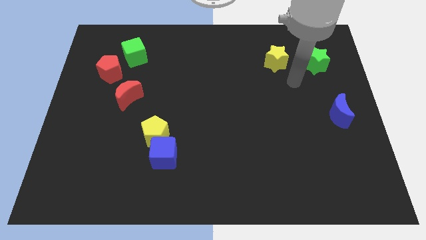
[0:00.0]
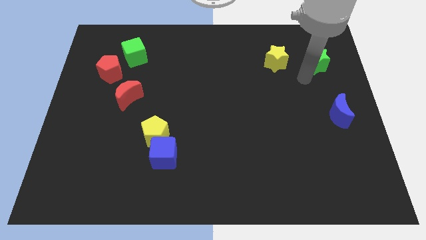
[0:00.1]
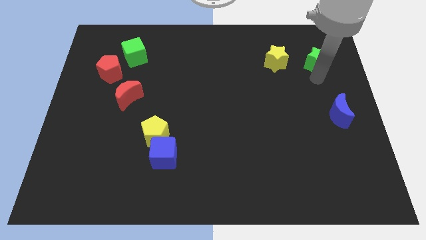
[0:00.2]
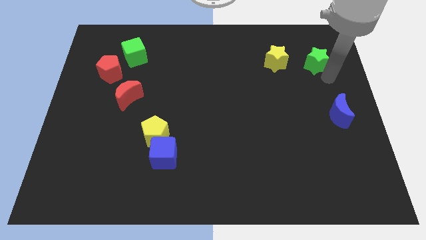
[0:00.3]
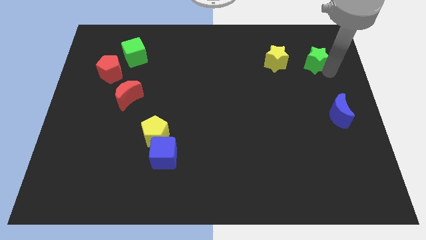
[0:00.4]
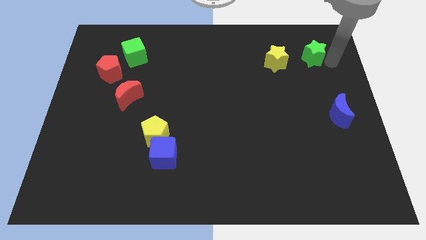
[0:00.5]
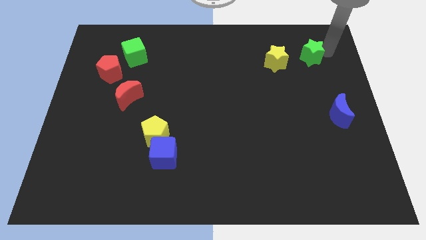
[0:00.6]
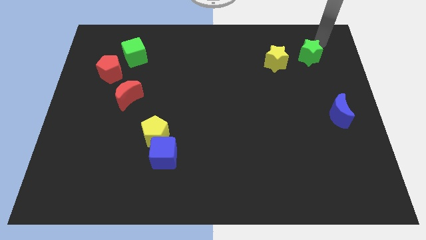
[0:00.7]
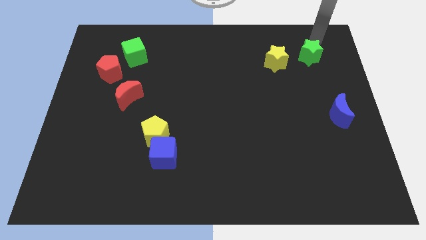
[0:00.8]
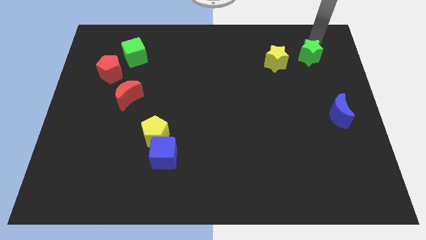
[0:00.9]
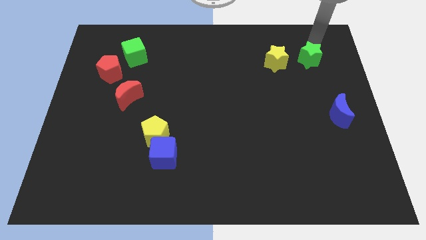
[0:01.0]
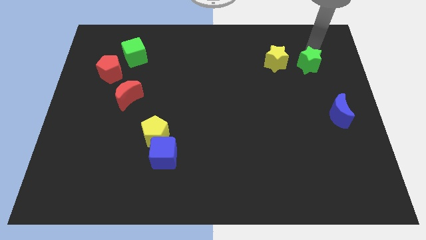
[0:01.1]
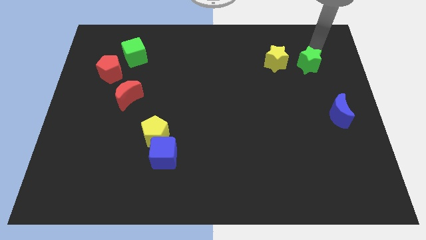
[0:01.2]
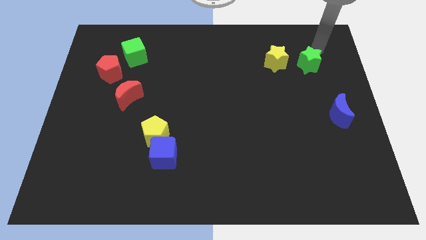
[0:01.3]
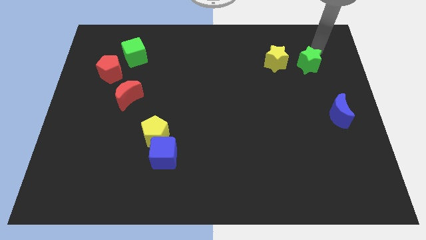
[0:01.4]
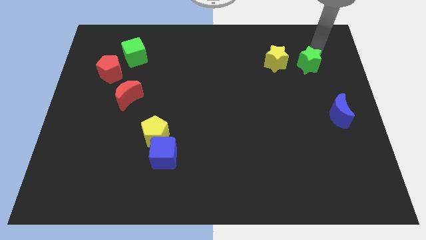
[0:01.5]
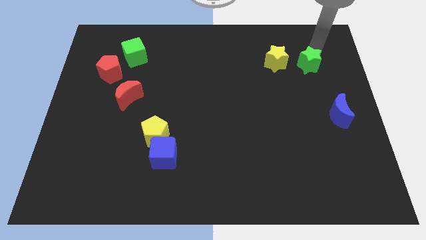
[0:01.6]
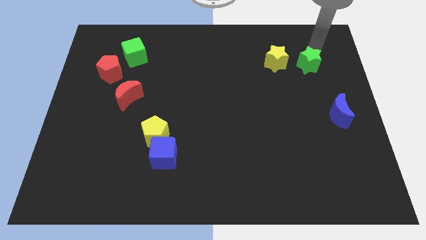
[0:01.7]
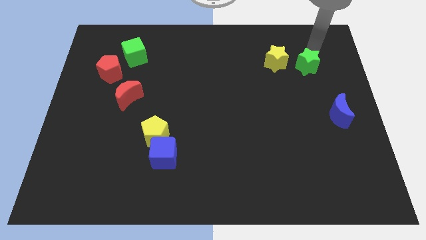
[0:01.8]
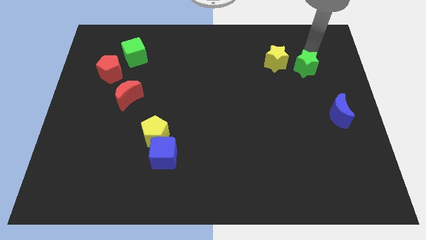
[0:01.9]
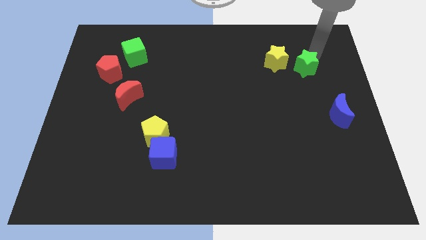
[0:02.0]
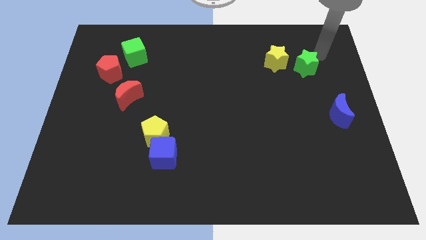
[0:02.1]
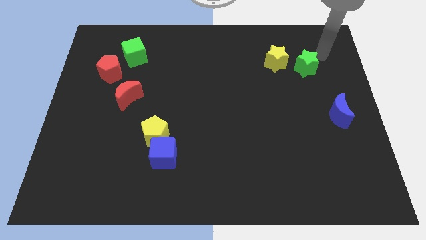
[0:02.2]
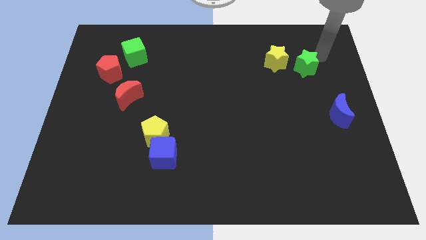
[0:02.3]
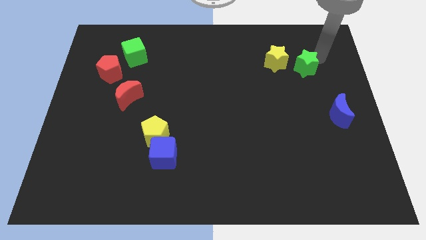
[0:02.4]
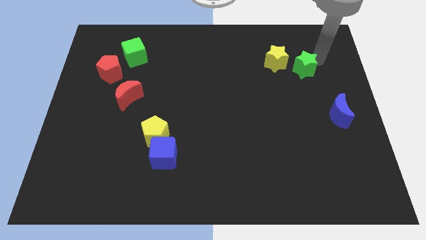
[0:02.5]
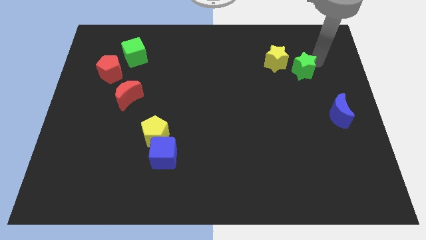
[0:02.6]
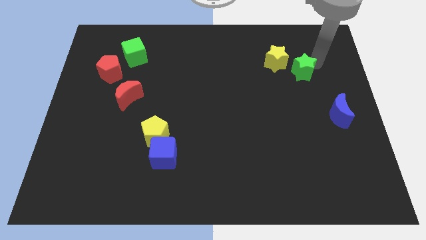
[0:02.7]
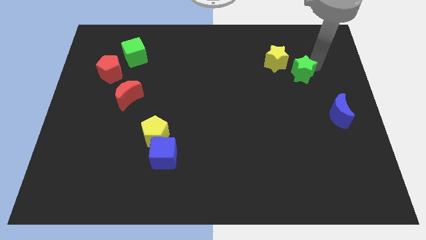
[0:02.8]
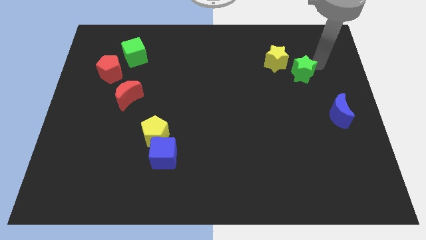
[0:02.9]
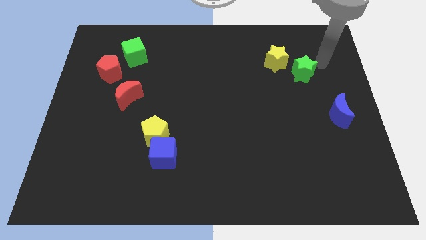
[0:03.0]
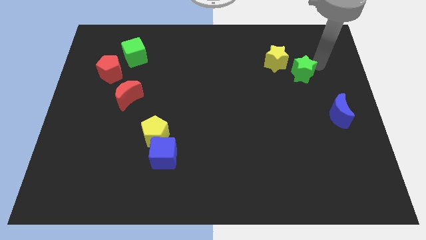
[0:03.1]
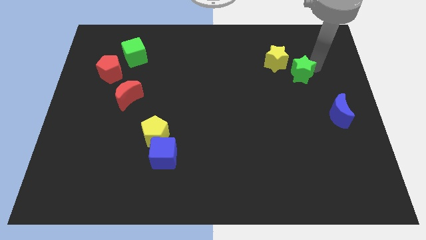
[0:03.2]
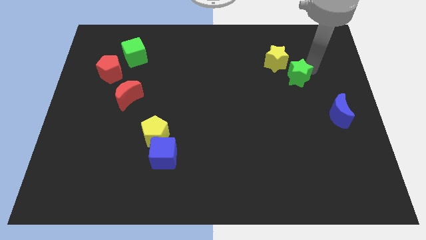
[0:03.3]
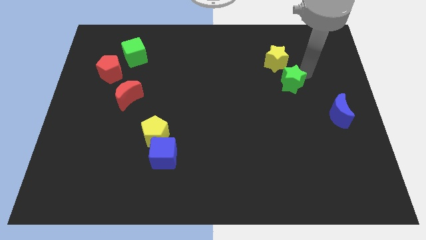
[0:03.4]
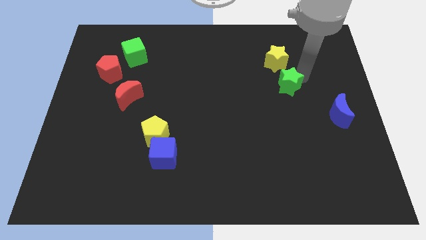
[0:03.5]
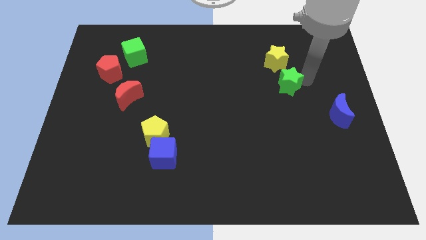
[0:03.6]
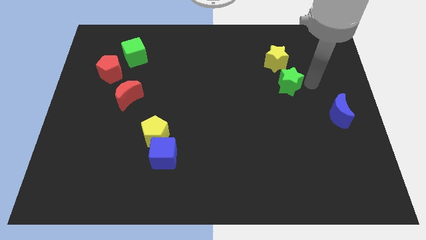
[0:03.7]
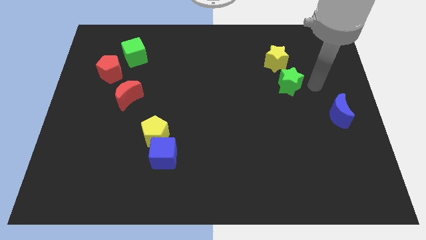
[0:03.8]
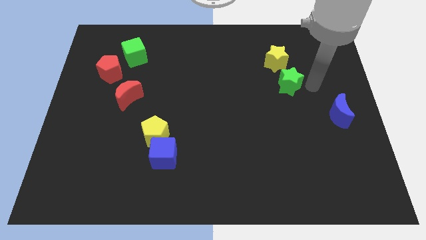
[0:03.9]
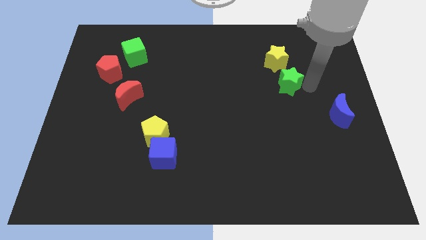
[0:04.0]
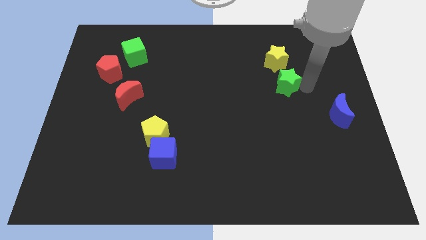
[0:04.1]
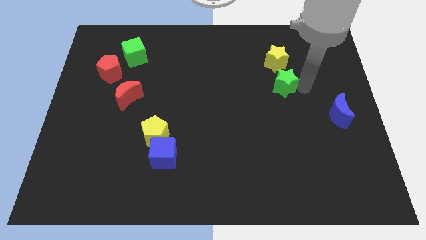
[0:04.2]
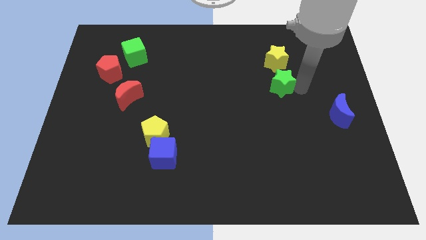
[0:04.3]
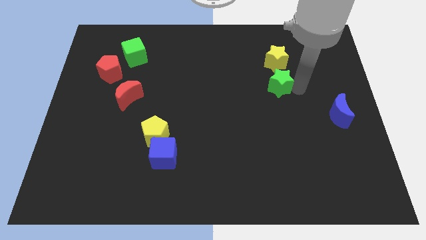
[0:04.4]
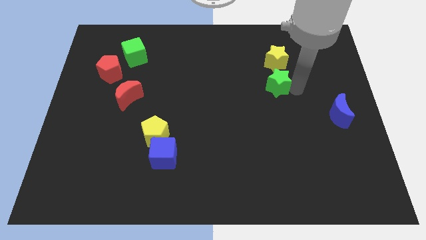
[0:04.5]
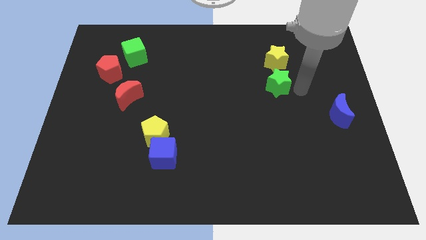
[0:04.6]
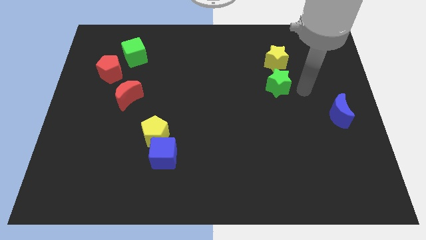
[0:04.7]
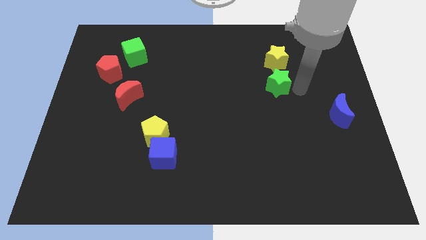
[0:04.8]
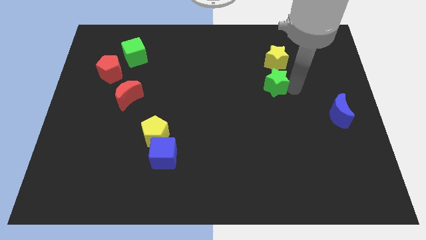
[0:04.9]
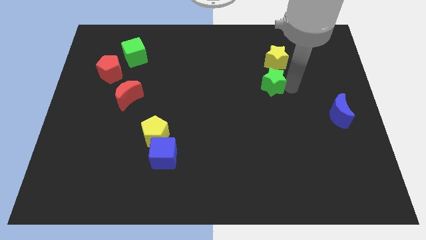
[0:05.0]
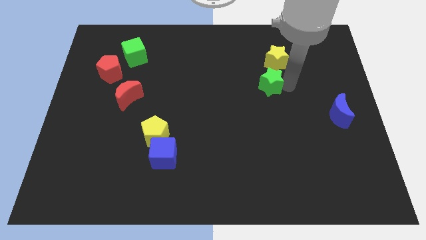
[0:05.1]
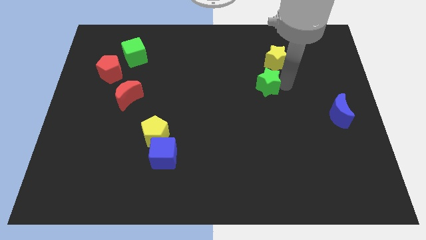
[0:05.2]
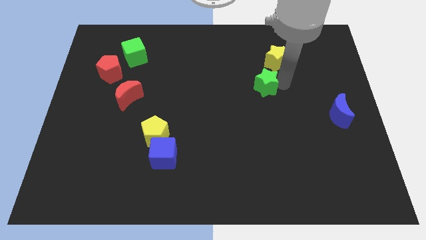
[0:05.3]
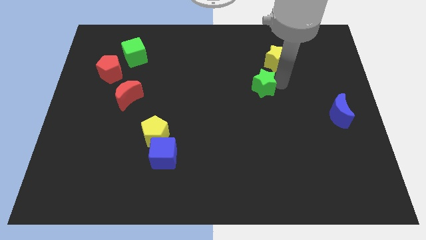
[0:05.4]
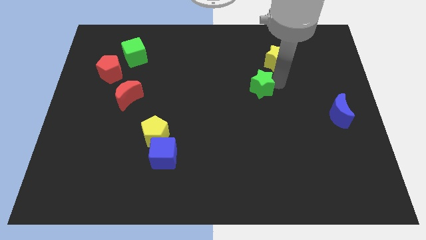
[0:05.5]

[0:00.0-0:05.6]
push the green star to the center of the board

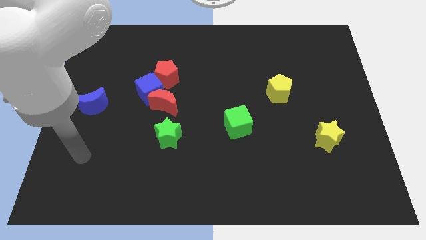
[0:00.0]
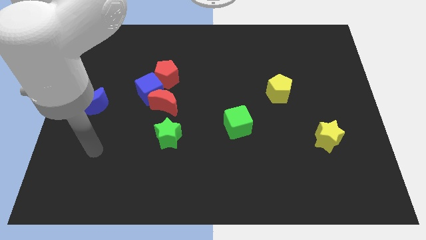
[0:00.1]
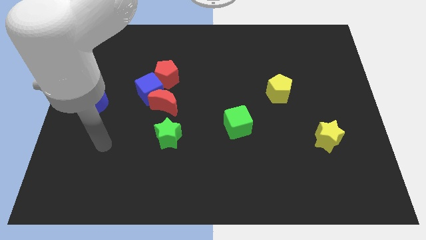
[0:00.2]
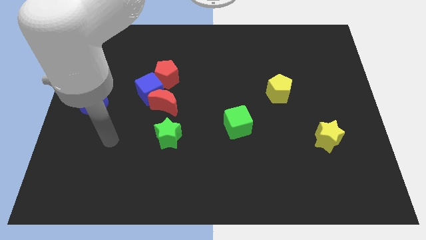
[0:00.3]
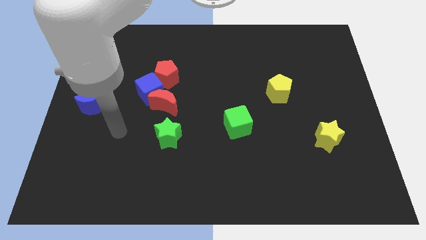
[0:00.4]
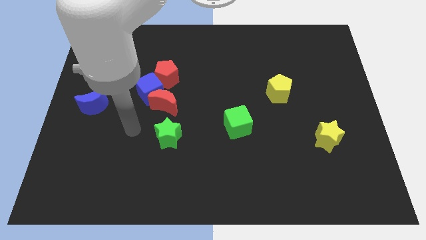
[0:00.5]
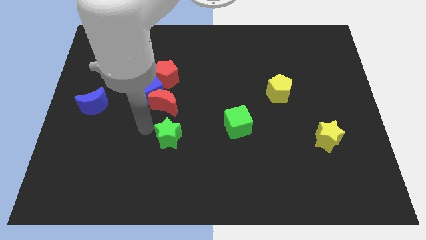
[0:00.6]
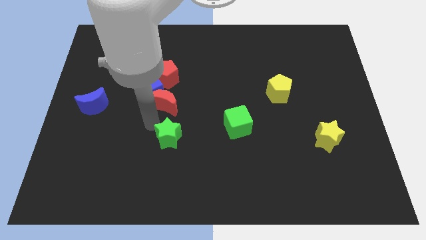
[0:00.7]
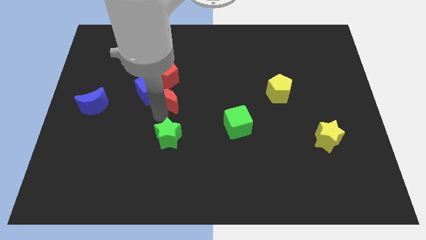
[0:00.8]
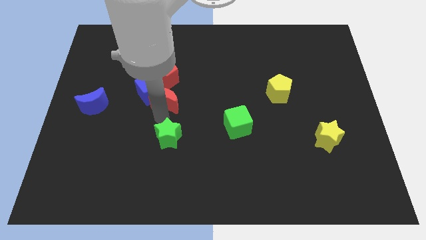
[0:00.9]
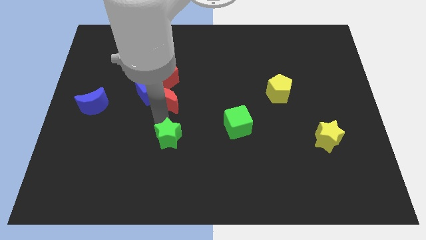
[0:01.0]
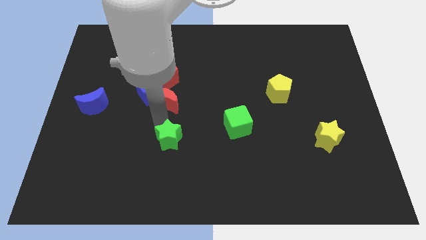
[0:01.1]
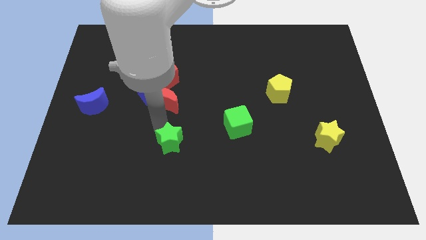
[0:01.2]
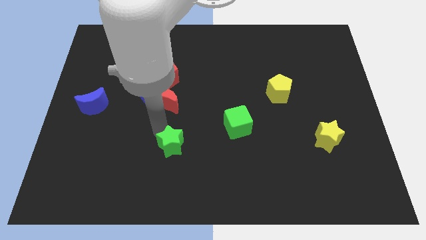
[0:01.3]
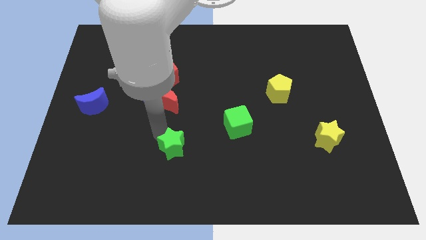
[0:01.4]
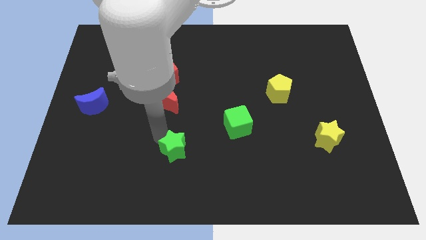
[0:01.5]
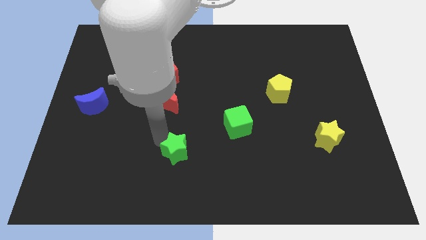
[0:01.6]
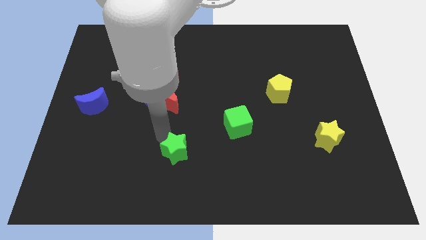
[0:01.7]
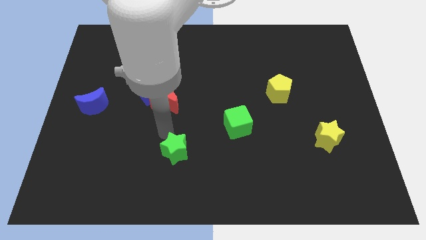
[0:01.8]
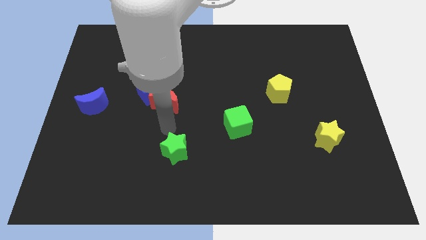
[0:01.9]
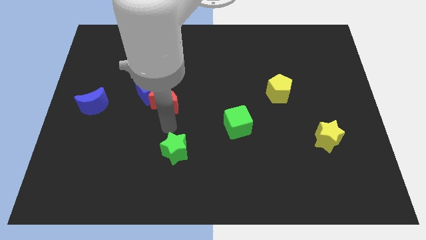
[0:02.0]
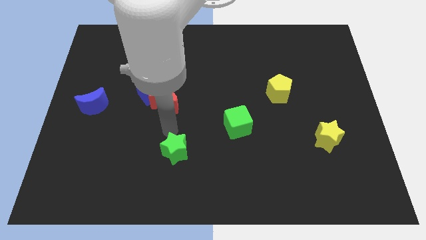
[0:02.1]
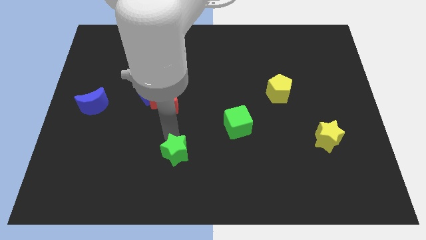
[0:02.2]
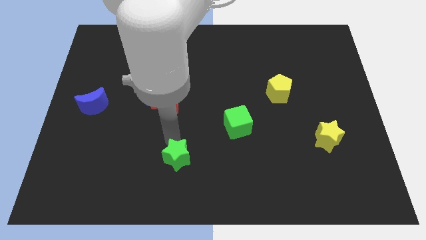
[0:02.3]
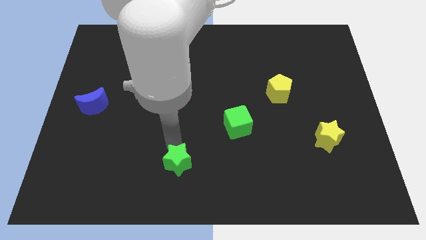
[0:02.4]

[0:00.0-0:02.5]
put the green star to the bottom
